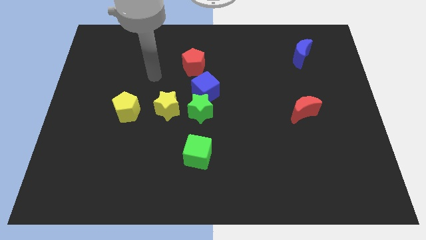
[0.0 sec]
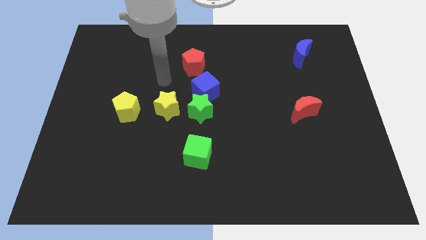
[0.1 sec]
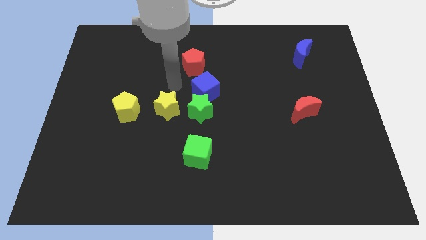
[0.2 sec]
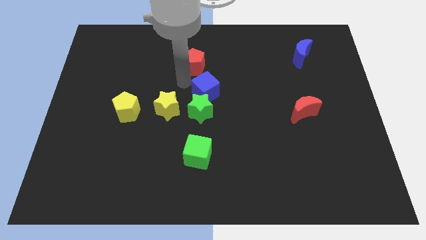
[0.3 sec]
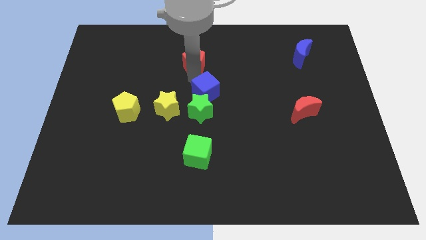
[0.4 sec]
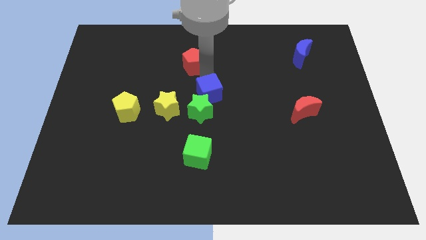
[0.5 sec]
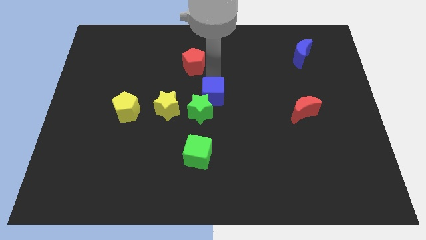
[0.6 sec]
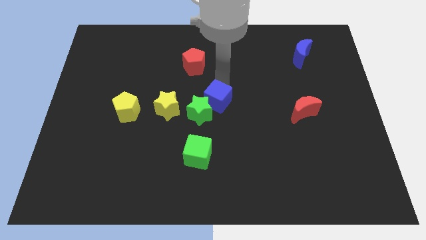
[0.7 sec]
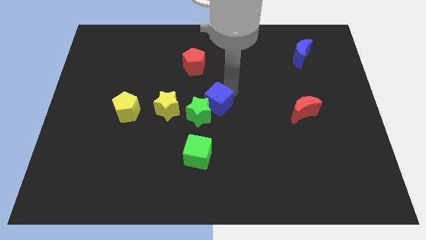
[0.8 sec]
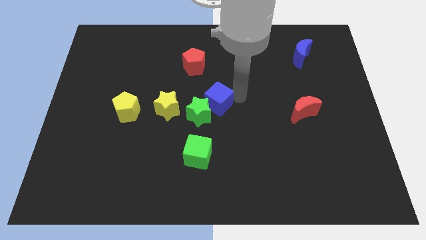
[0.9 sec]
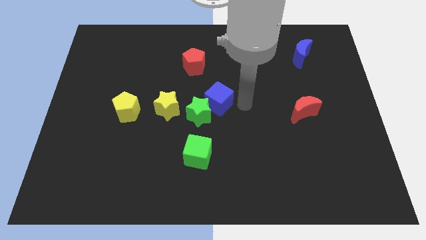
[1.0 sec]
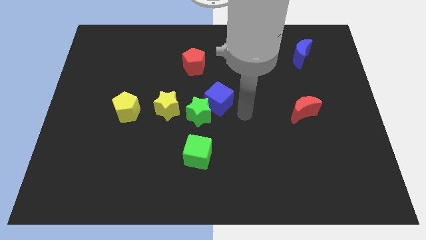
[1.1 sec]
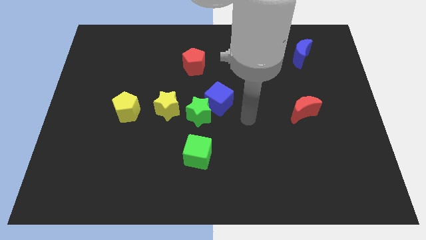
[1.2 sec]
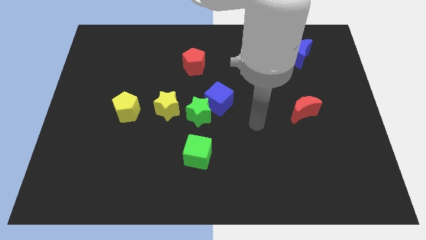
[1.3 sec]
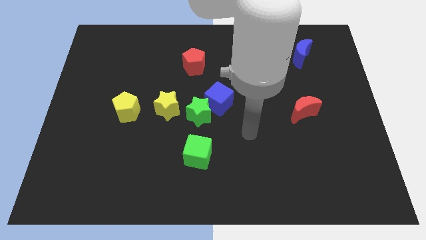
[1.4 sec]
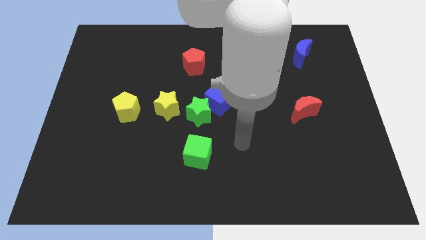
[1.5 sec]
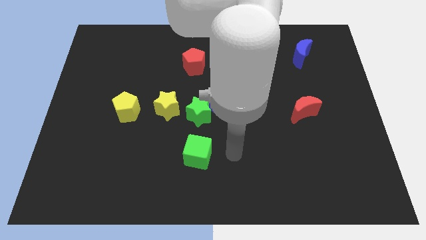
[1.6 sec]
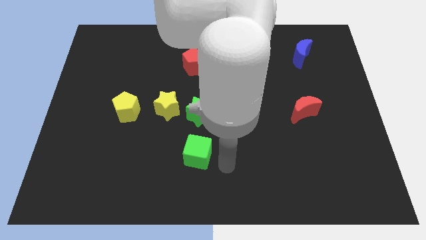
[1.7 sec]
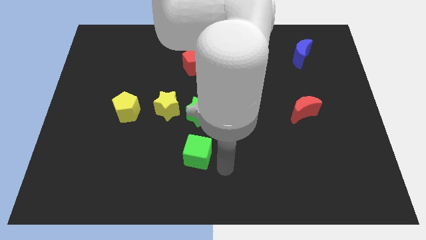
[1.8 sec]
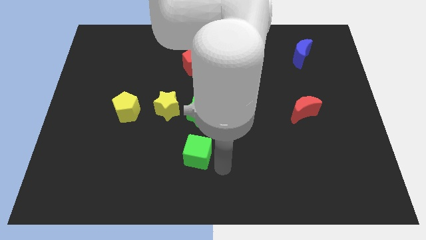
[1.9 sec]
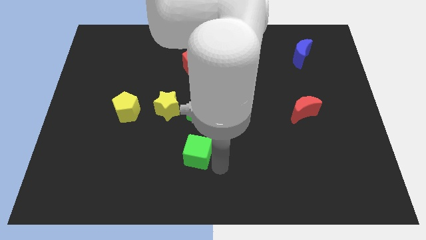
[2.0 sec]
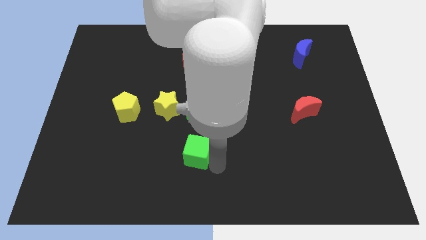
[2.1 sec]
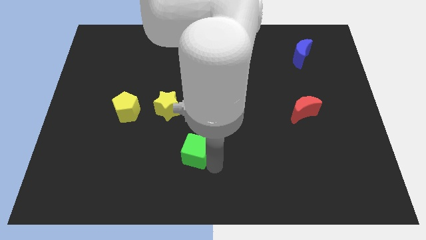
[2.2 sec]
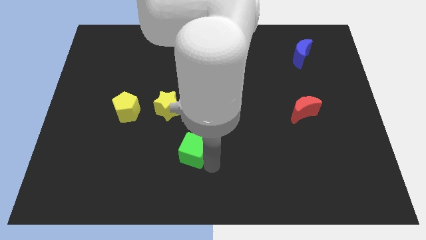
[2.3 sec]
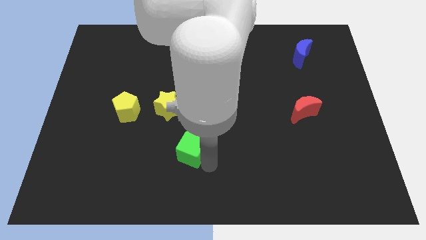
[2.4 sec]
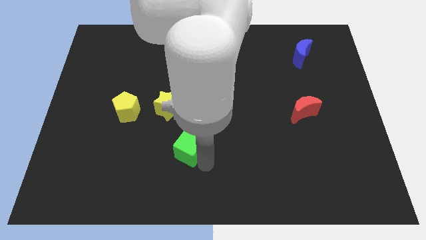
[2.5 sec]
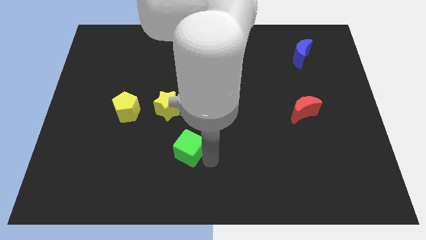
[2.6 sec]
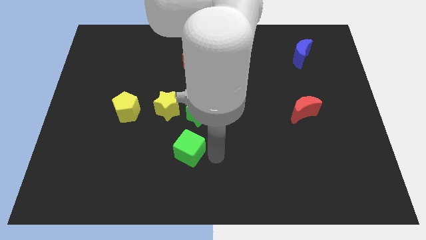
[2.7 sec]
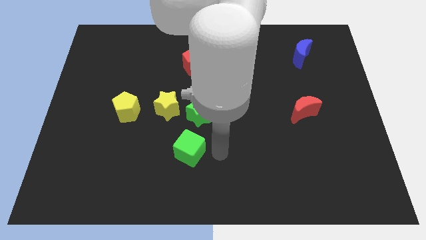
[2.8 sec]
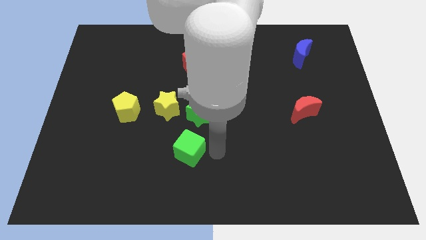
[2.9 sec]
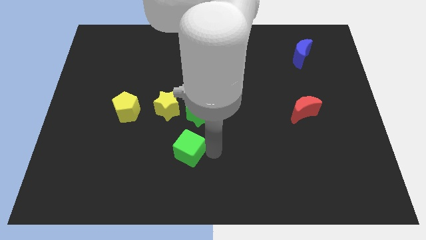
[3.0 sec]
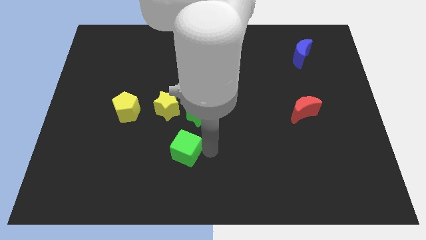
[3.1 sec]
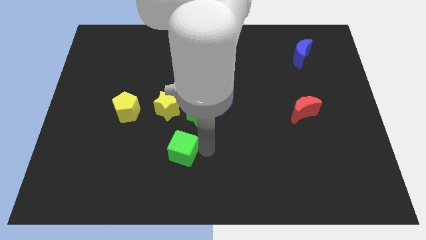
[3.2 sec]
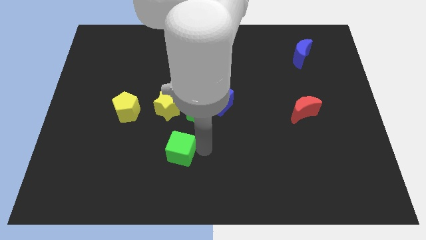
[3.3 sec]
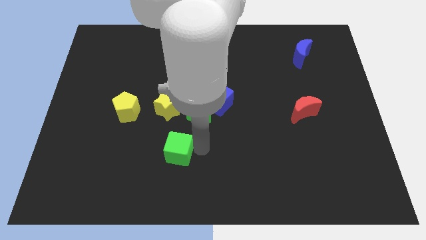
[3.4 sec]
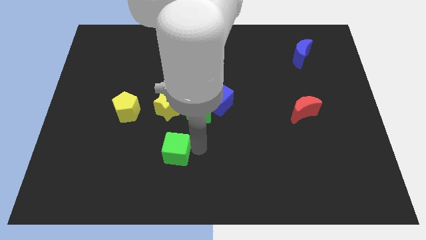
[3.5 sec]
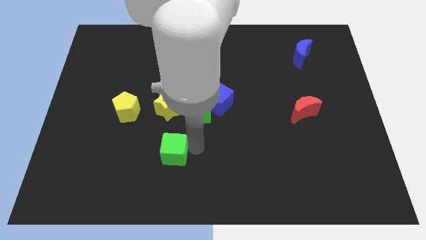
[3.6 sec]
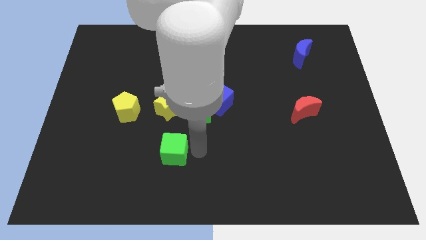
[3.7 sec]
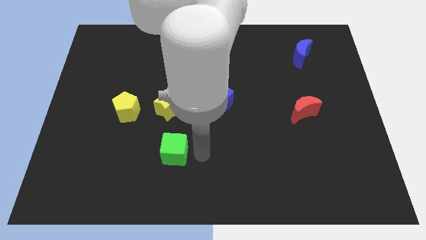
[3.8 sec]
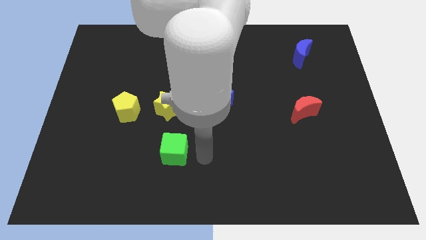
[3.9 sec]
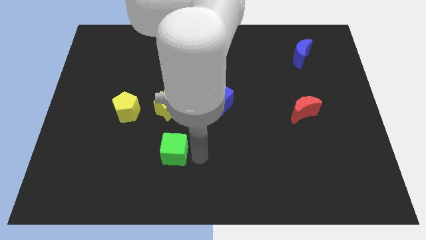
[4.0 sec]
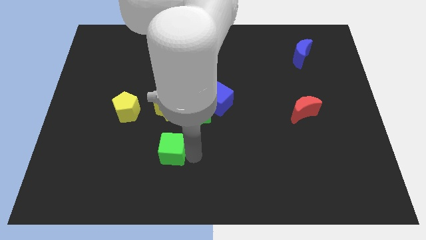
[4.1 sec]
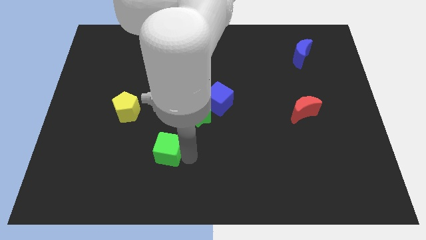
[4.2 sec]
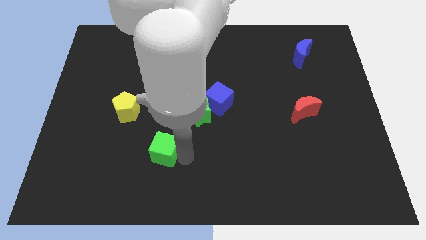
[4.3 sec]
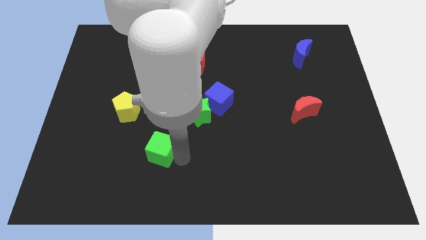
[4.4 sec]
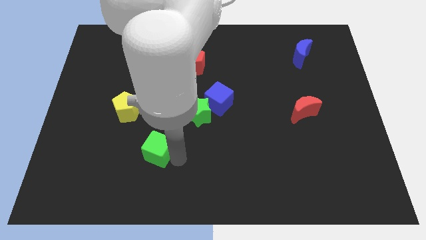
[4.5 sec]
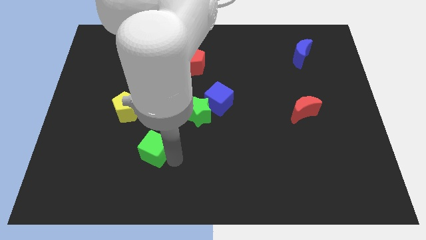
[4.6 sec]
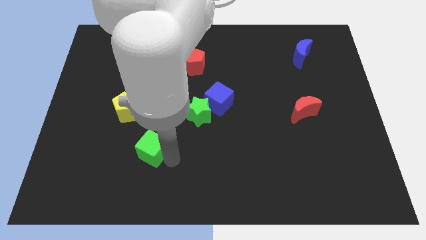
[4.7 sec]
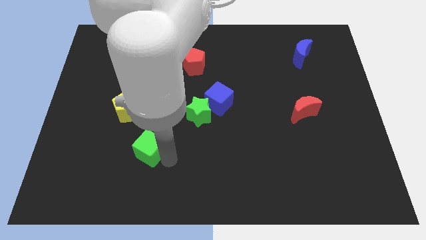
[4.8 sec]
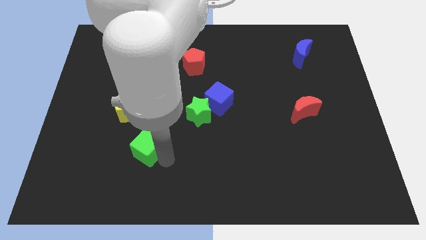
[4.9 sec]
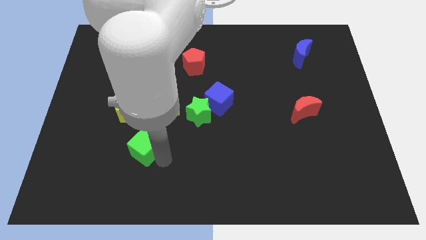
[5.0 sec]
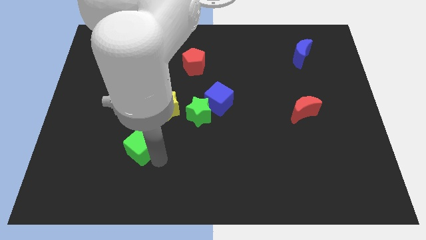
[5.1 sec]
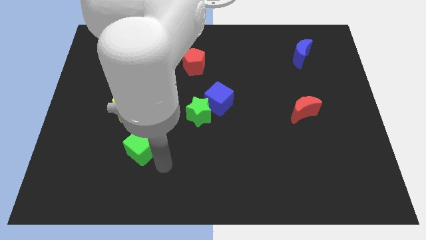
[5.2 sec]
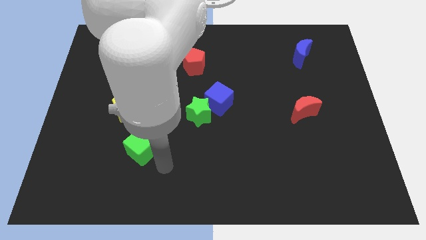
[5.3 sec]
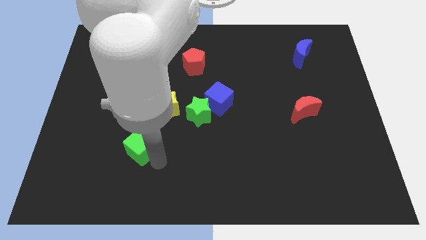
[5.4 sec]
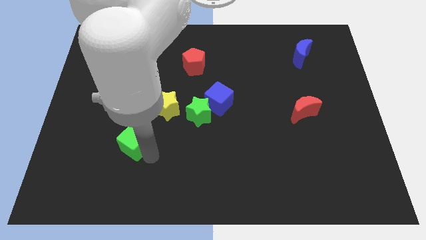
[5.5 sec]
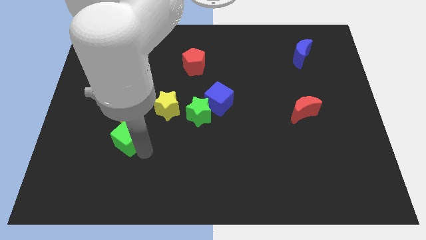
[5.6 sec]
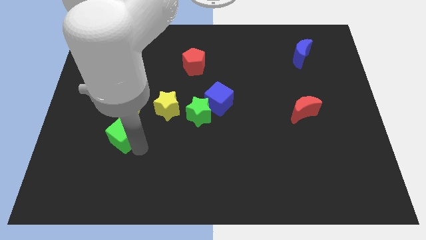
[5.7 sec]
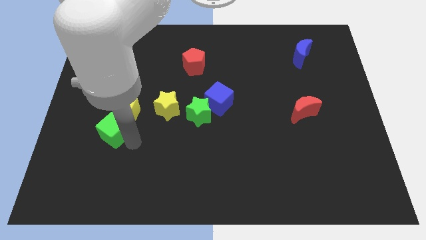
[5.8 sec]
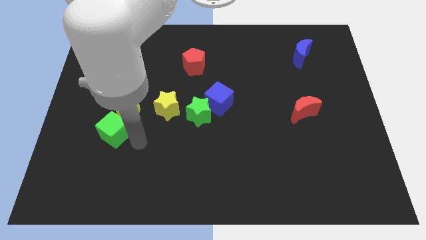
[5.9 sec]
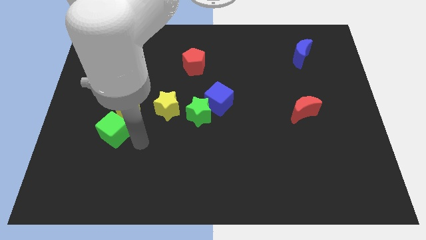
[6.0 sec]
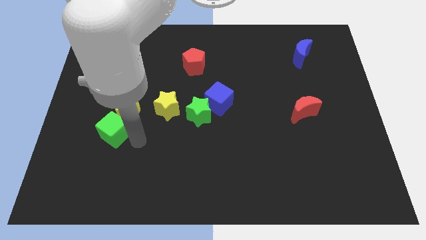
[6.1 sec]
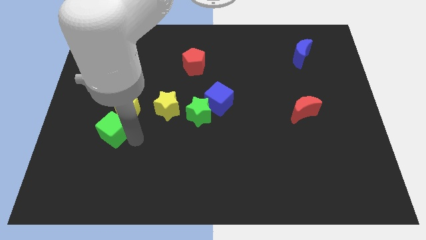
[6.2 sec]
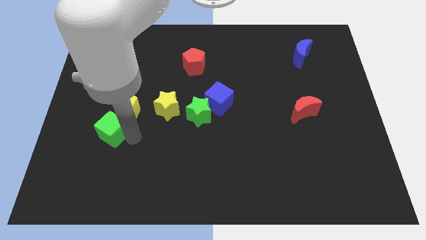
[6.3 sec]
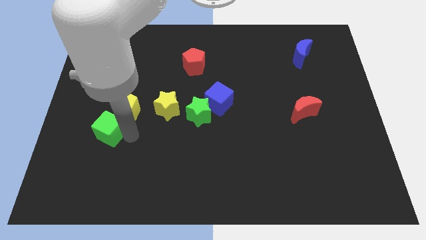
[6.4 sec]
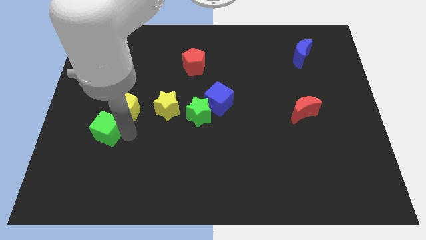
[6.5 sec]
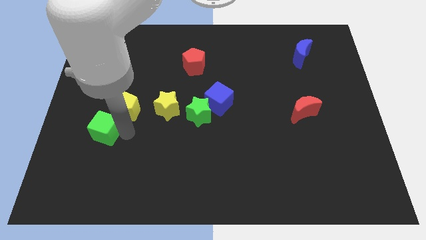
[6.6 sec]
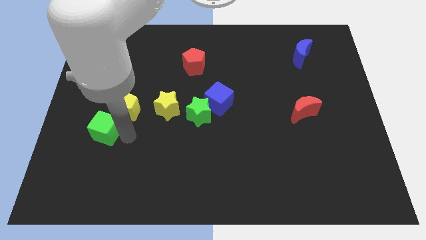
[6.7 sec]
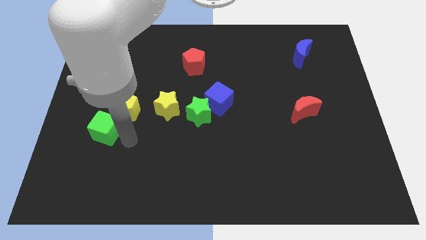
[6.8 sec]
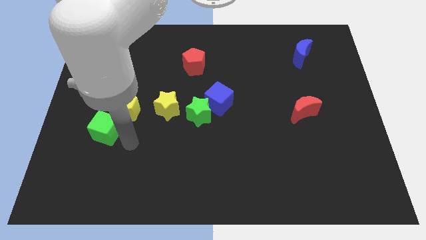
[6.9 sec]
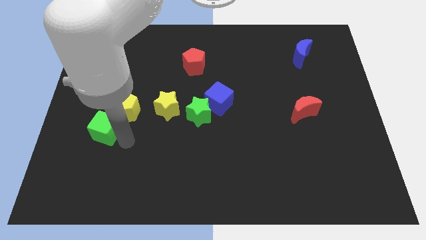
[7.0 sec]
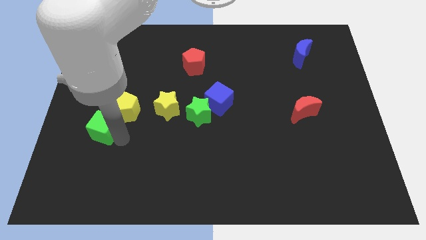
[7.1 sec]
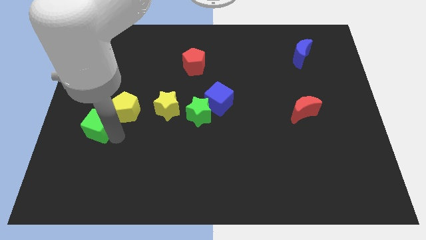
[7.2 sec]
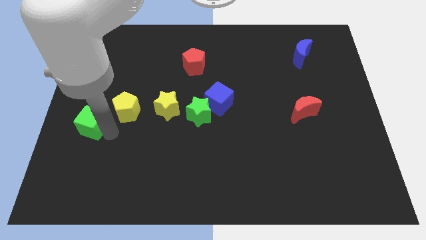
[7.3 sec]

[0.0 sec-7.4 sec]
put the green cube to the left side of the board
